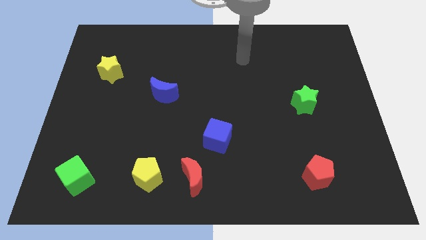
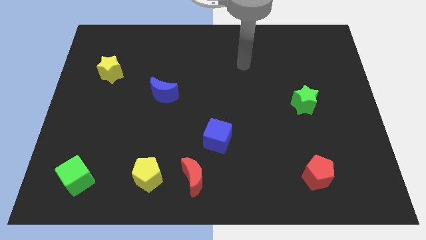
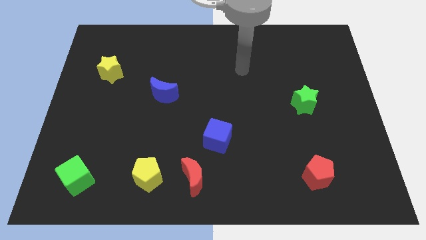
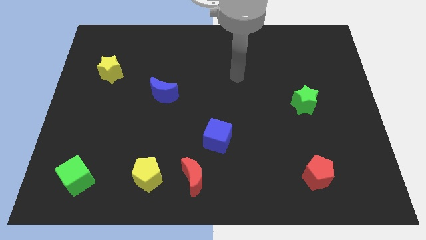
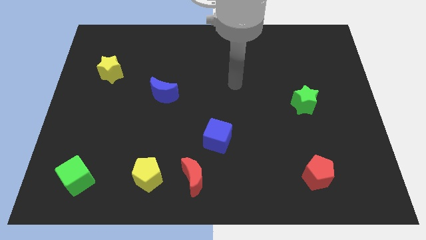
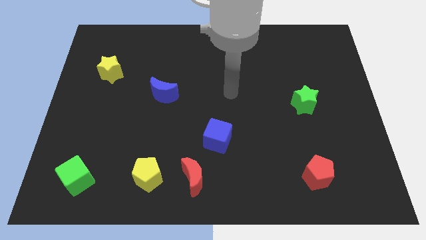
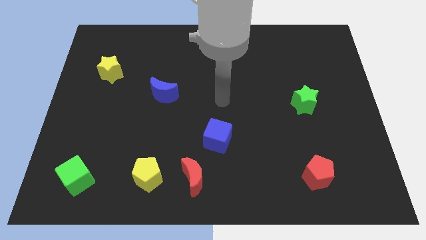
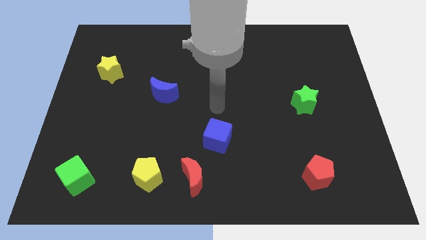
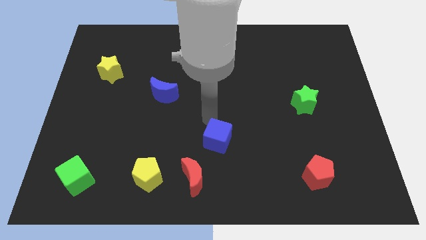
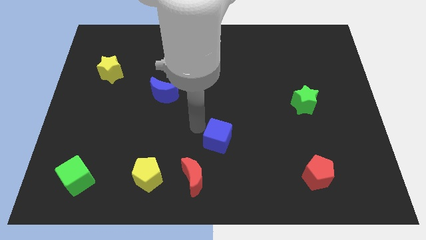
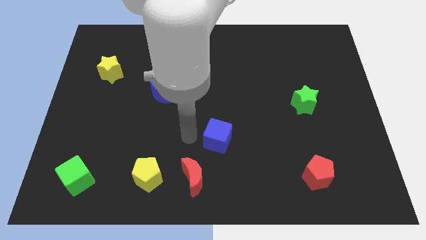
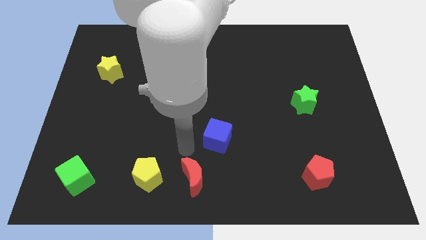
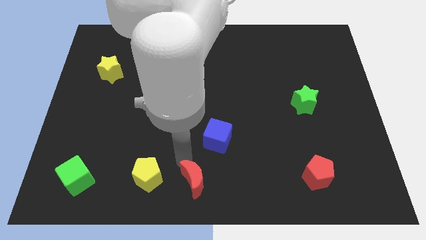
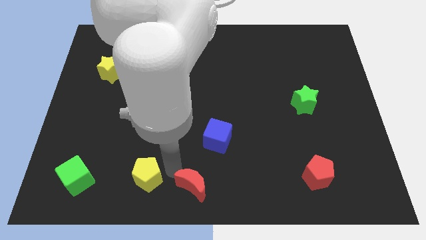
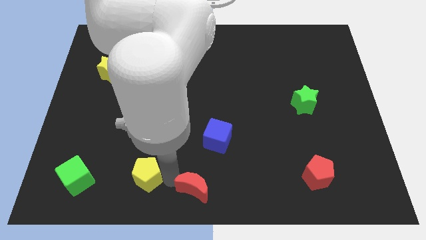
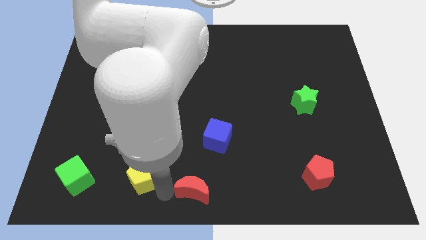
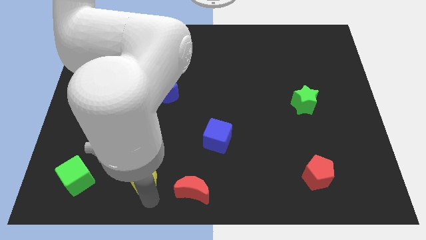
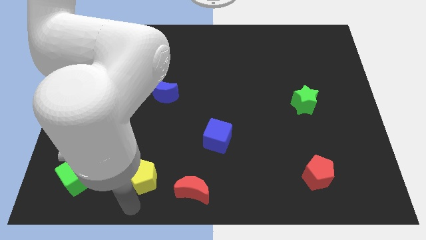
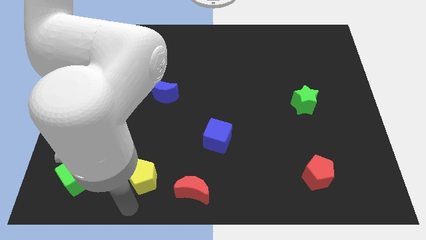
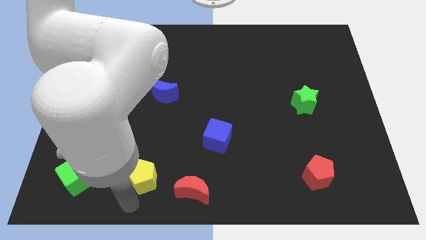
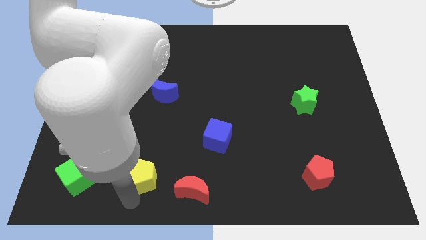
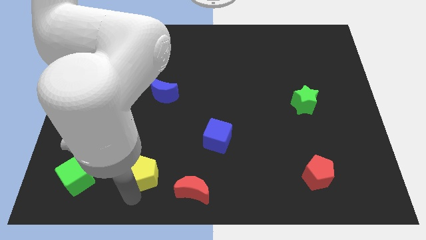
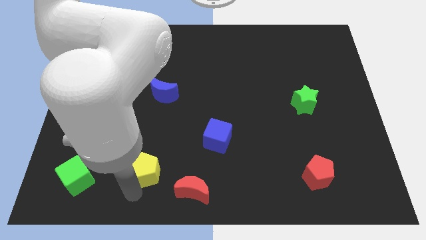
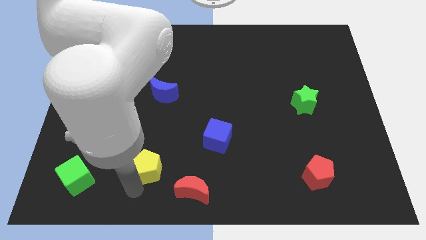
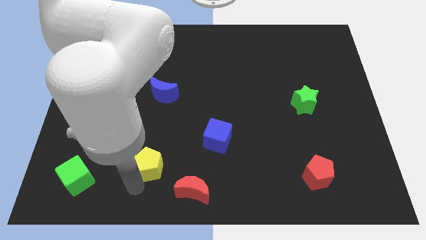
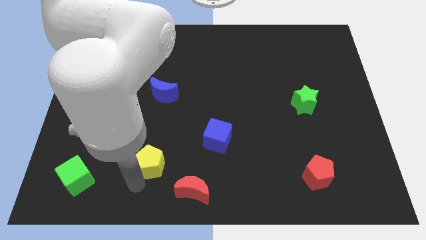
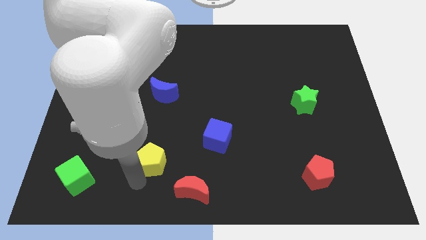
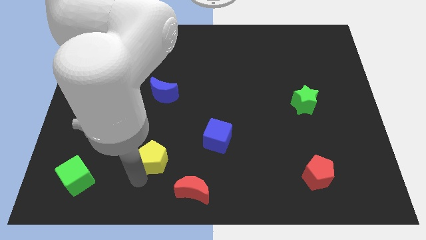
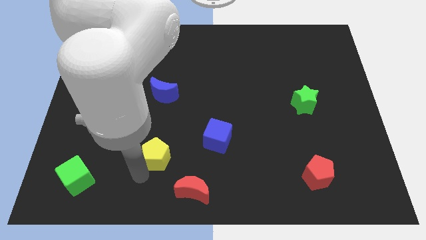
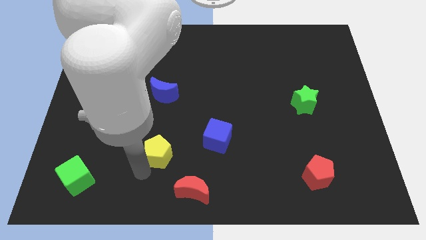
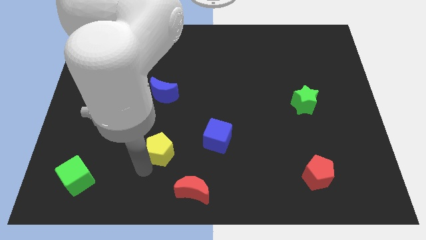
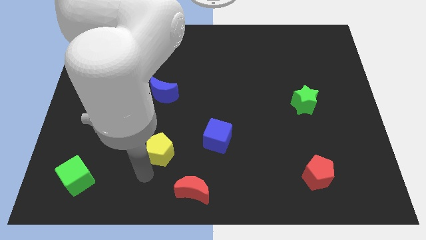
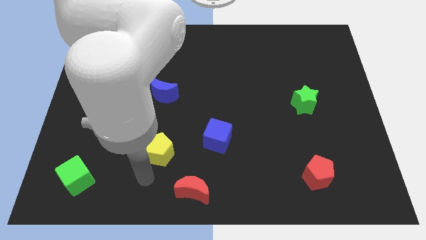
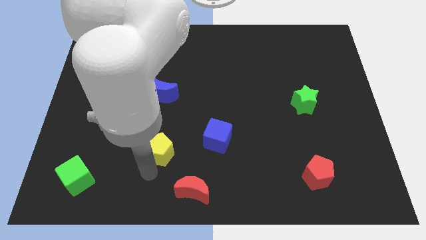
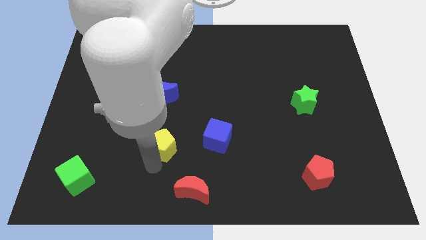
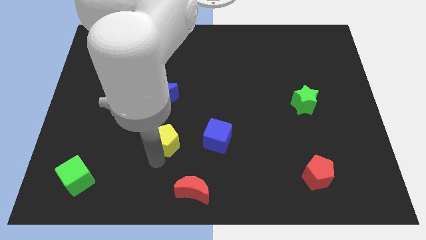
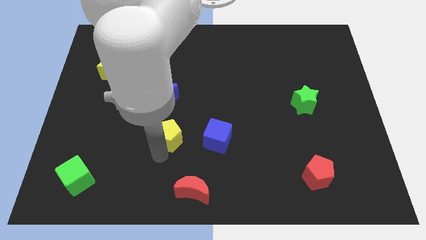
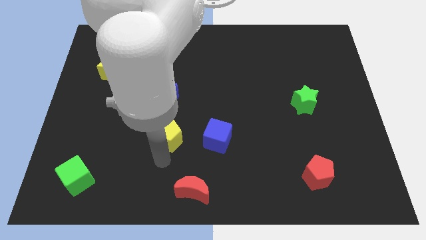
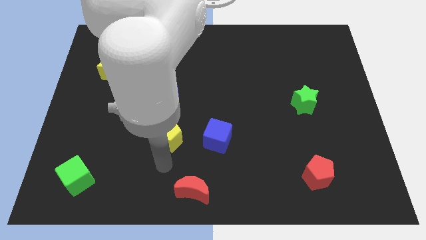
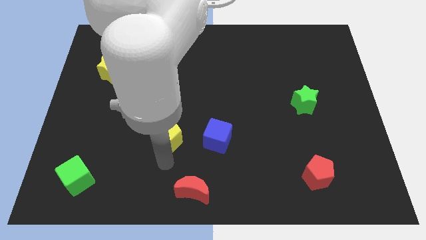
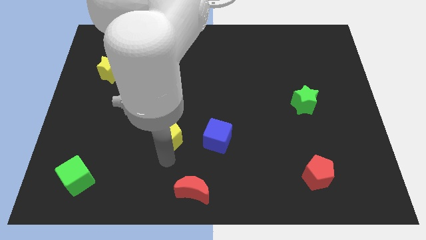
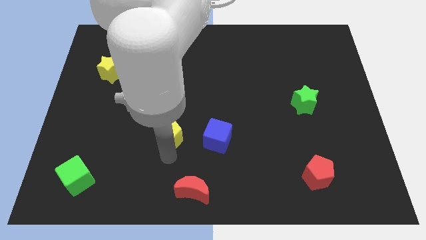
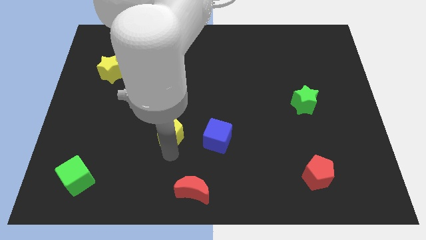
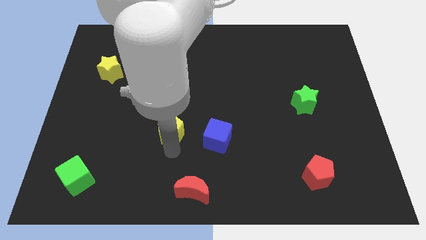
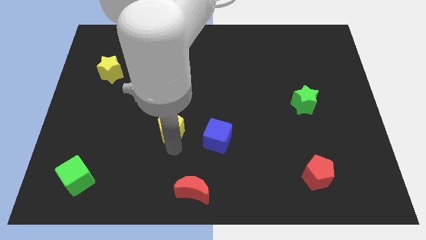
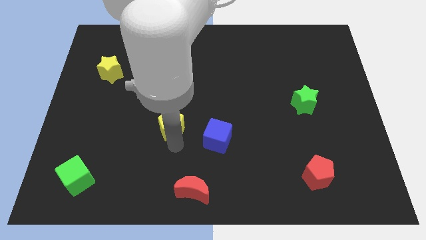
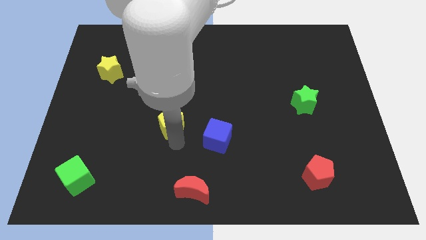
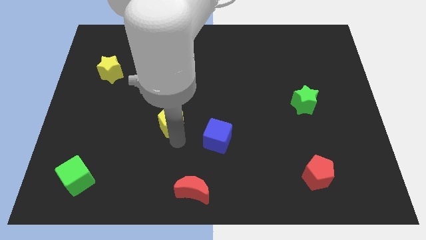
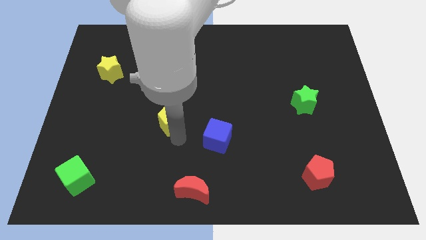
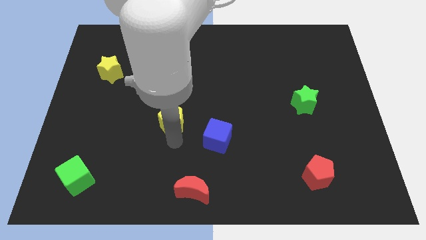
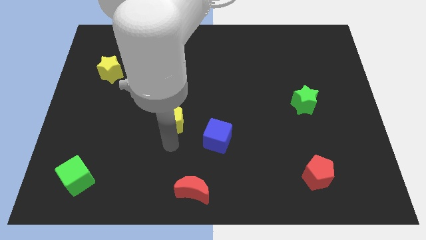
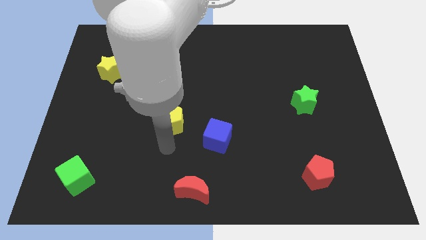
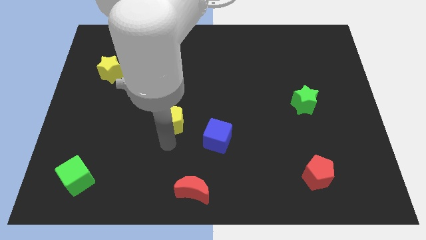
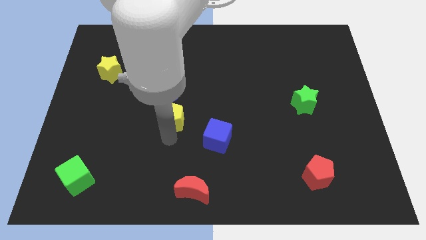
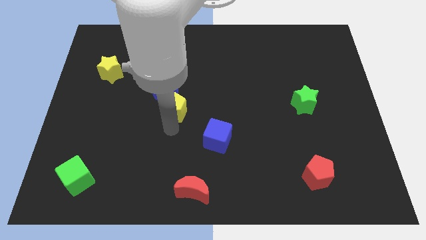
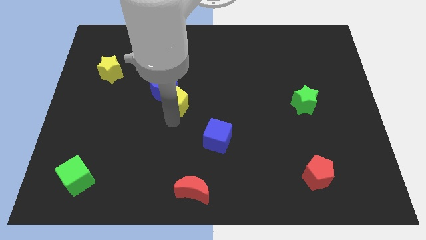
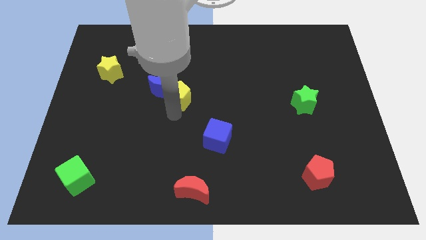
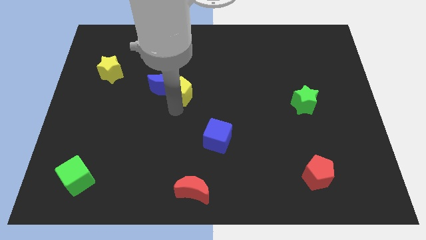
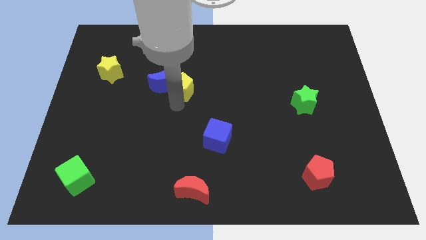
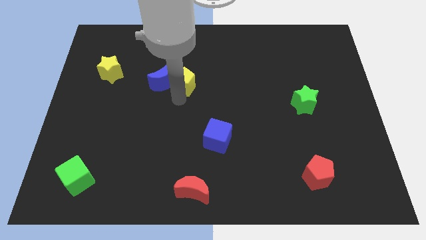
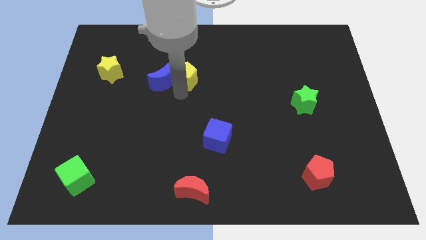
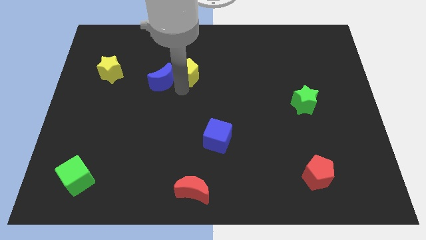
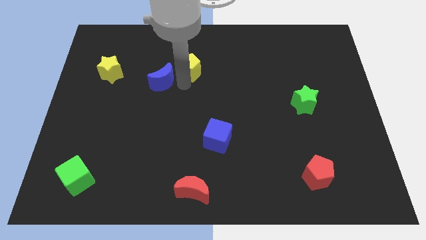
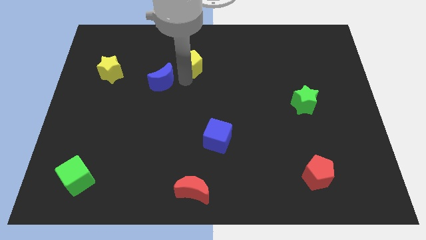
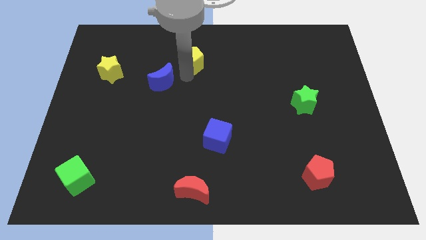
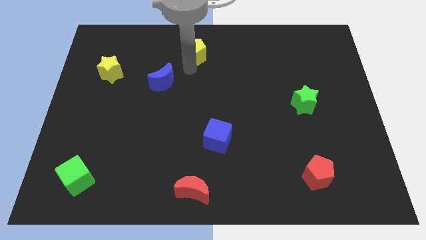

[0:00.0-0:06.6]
put the yellow pentagon to the towards your base
